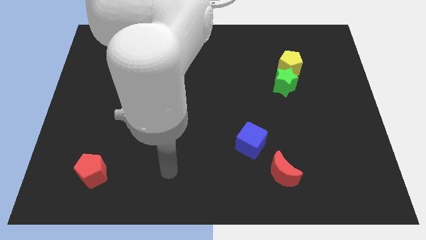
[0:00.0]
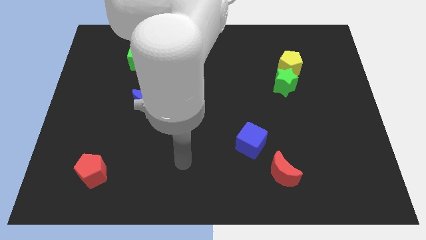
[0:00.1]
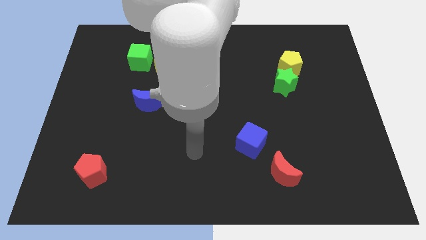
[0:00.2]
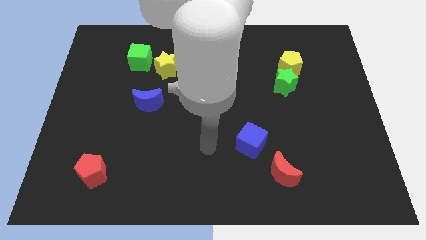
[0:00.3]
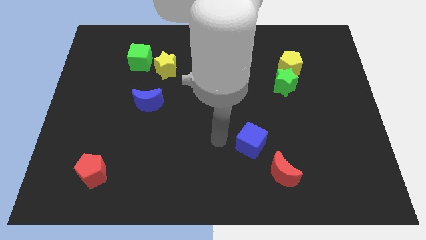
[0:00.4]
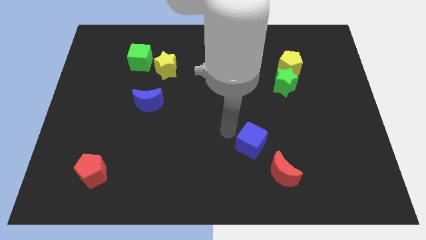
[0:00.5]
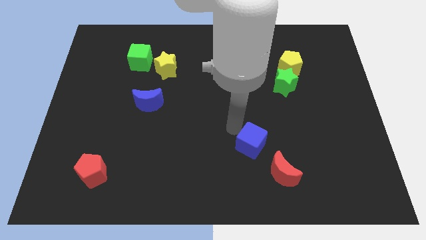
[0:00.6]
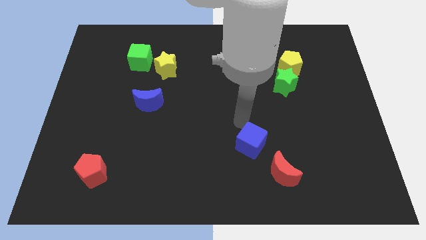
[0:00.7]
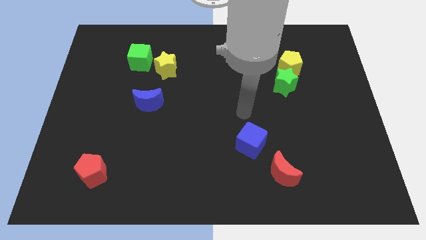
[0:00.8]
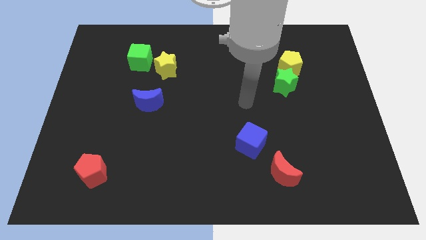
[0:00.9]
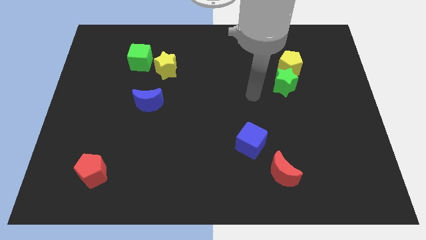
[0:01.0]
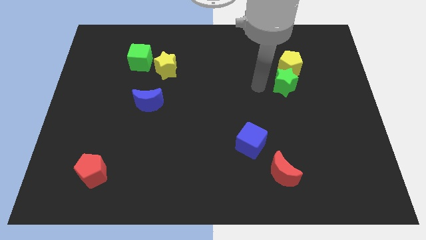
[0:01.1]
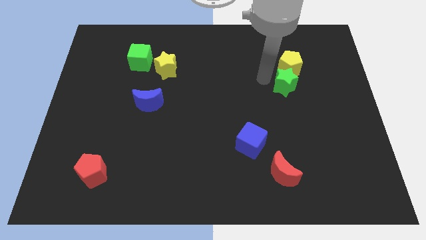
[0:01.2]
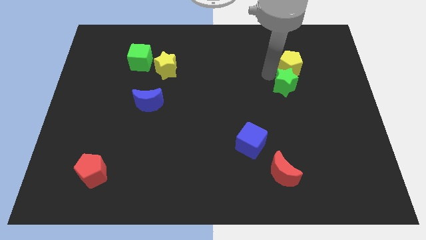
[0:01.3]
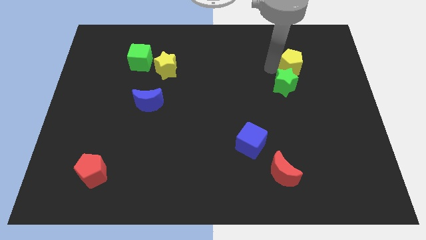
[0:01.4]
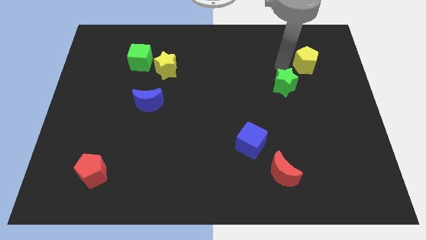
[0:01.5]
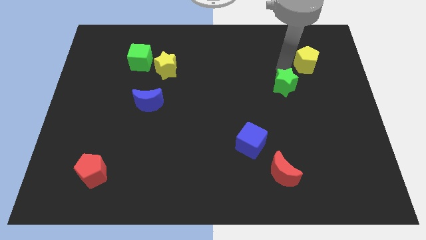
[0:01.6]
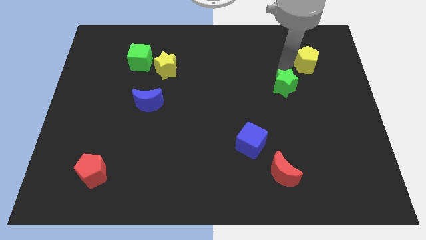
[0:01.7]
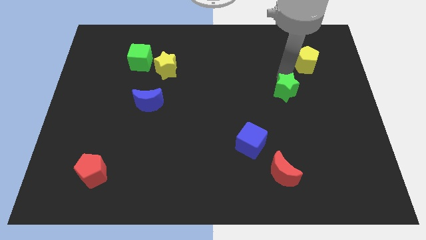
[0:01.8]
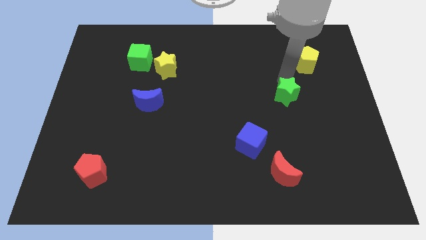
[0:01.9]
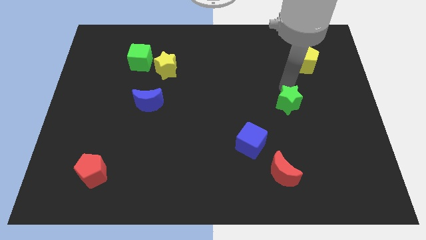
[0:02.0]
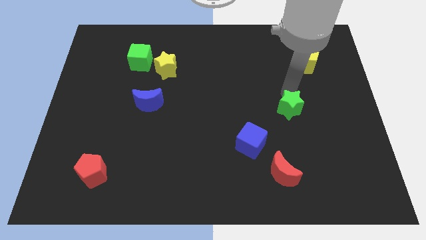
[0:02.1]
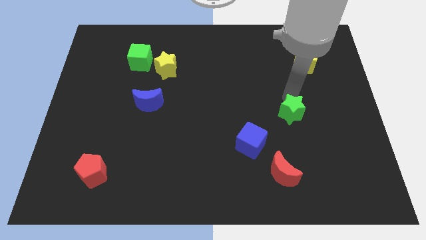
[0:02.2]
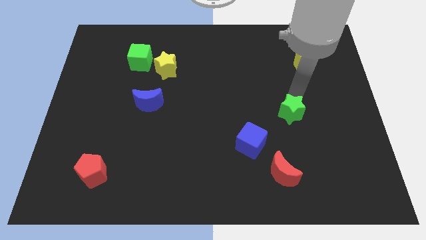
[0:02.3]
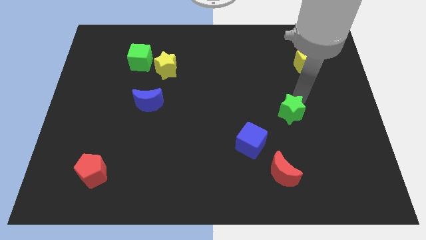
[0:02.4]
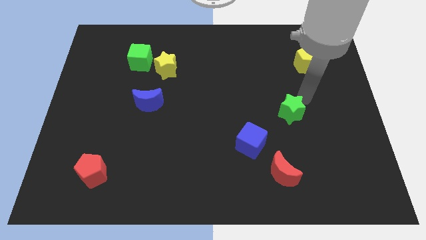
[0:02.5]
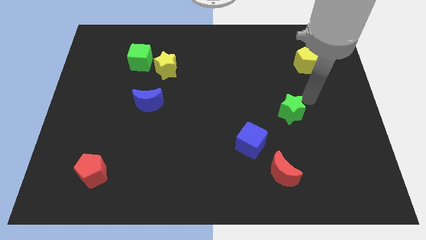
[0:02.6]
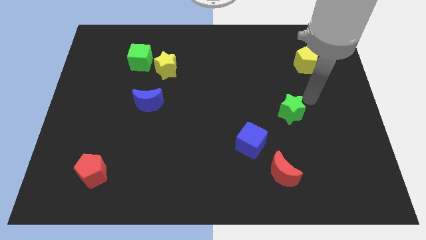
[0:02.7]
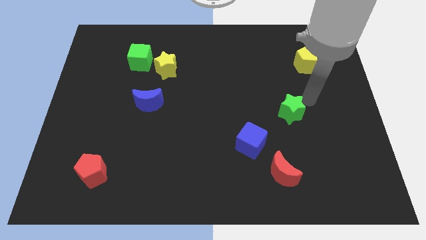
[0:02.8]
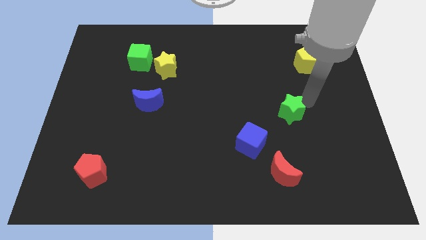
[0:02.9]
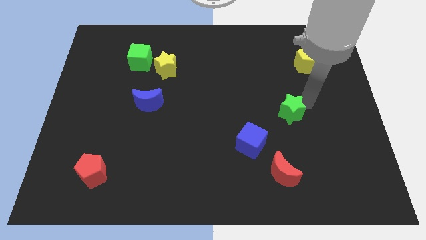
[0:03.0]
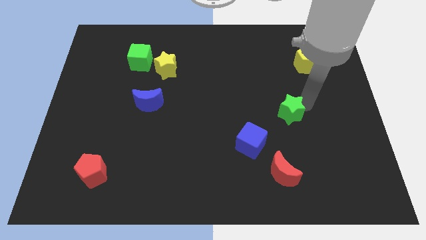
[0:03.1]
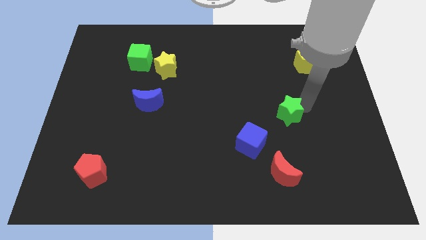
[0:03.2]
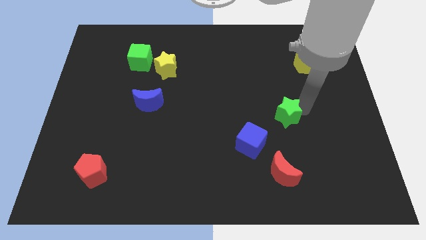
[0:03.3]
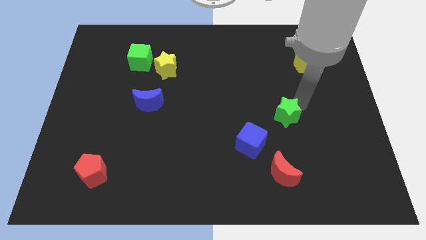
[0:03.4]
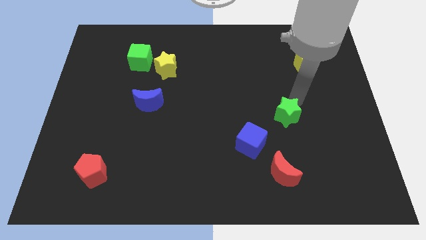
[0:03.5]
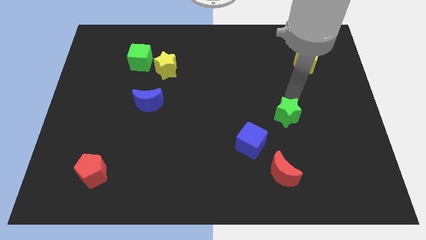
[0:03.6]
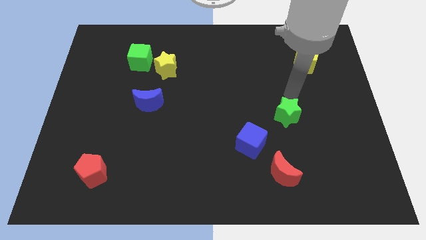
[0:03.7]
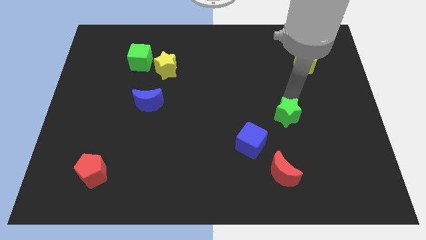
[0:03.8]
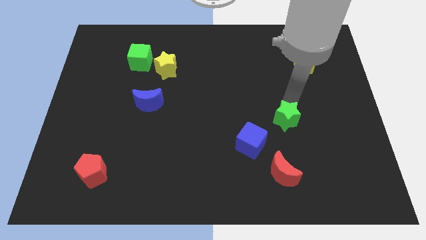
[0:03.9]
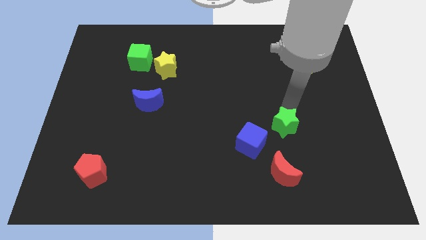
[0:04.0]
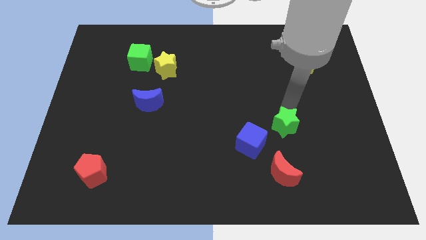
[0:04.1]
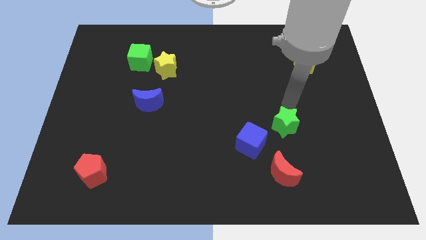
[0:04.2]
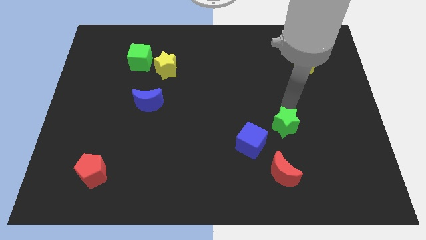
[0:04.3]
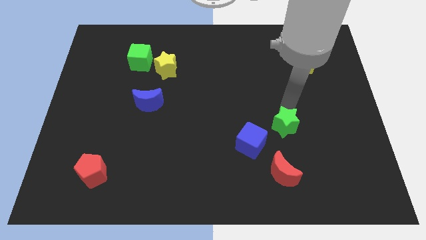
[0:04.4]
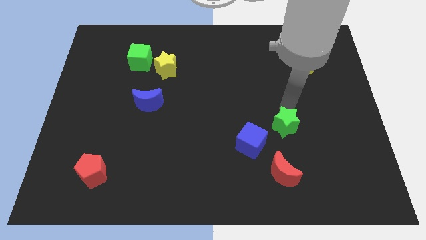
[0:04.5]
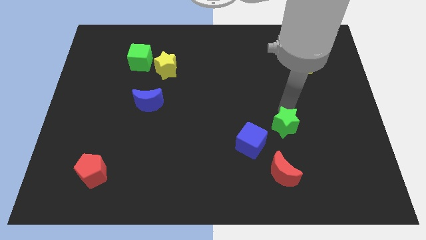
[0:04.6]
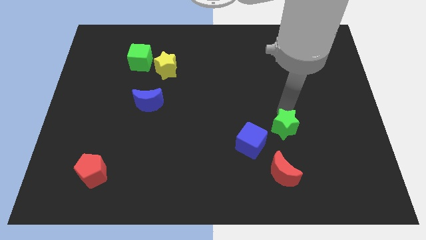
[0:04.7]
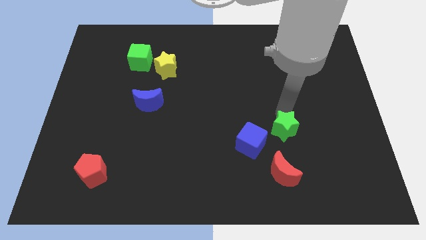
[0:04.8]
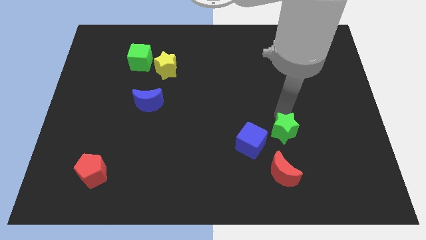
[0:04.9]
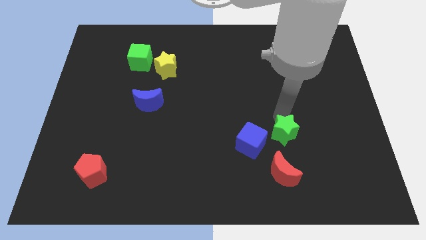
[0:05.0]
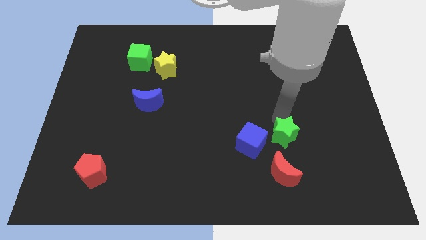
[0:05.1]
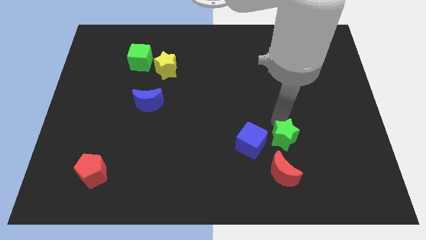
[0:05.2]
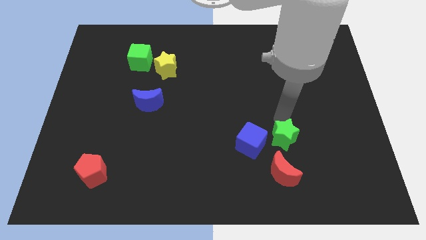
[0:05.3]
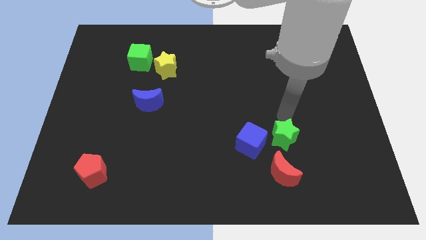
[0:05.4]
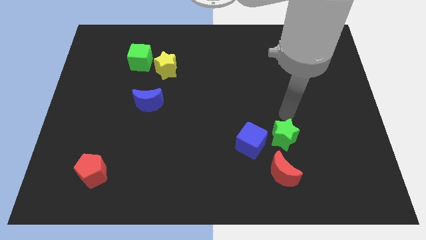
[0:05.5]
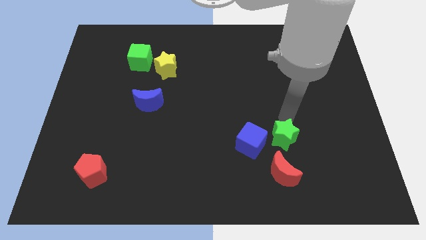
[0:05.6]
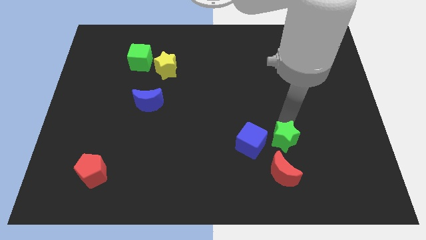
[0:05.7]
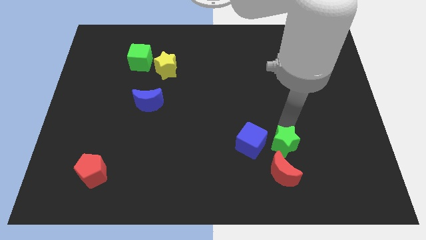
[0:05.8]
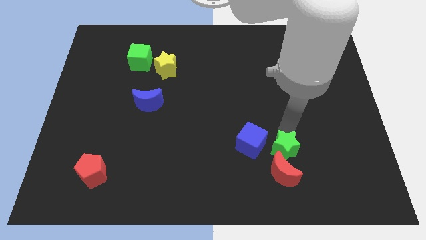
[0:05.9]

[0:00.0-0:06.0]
slide the green star towards the red moon

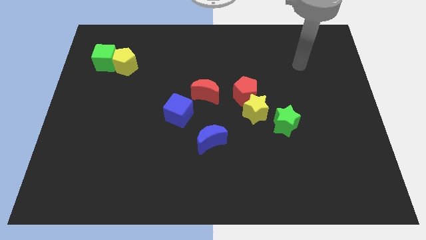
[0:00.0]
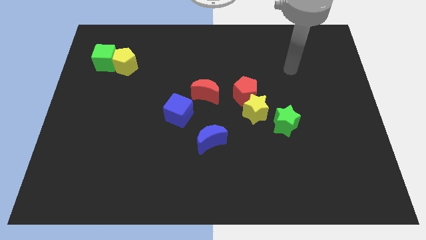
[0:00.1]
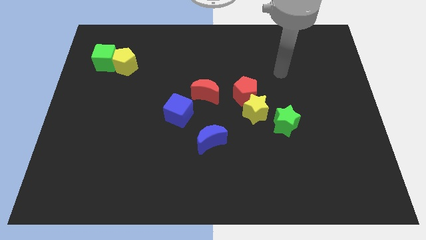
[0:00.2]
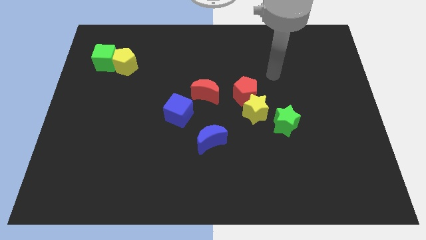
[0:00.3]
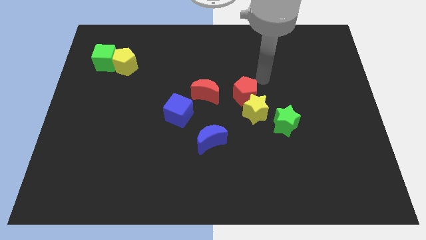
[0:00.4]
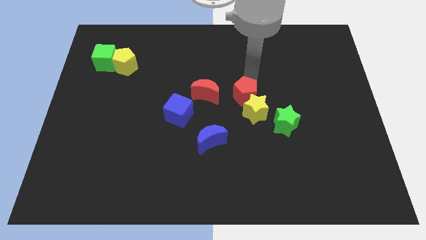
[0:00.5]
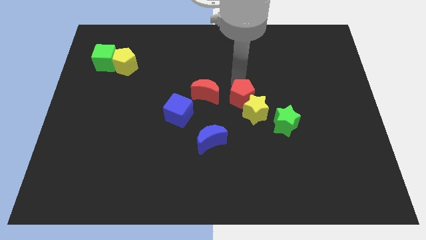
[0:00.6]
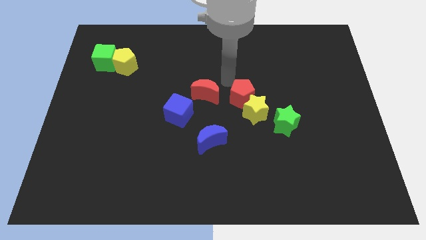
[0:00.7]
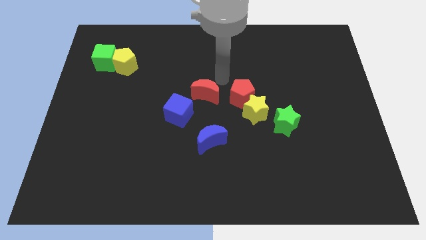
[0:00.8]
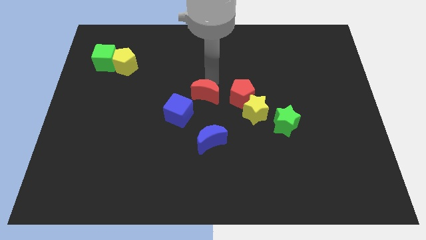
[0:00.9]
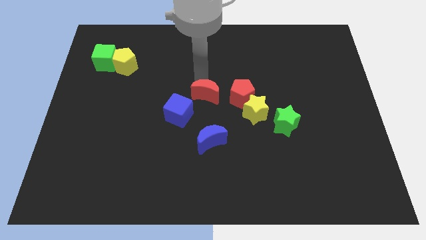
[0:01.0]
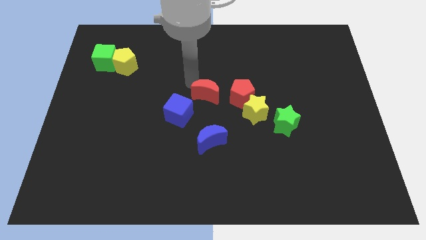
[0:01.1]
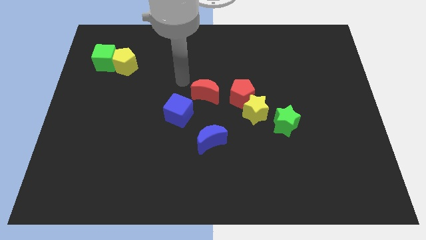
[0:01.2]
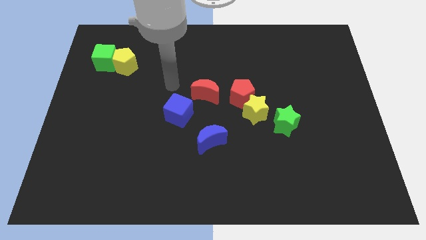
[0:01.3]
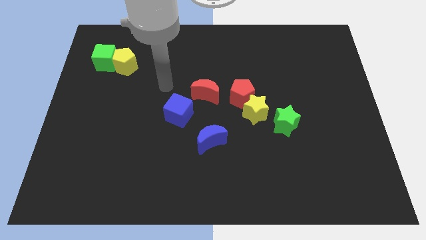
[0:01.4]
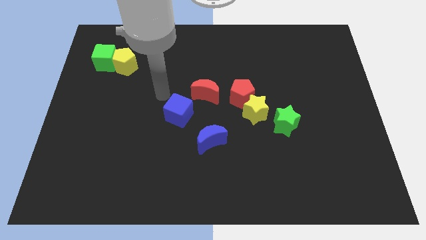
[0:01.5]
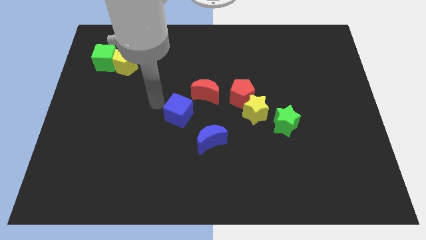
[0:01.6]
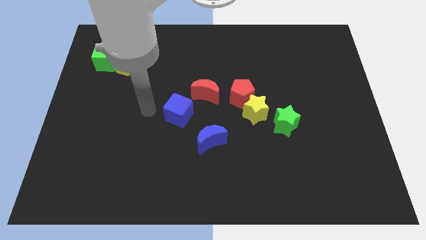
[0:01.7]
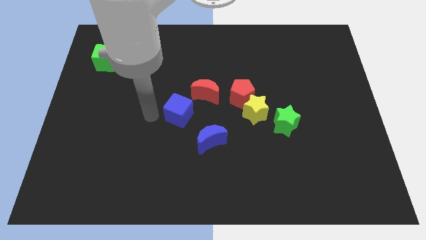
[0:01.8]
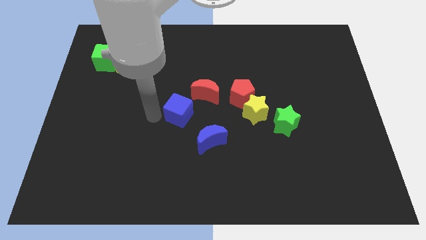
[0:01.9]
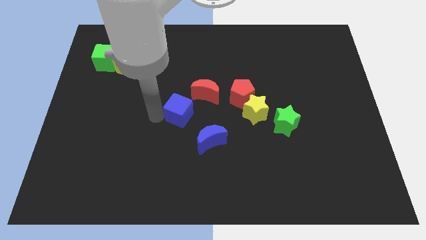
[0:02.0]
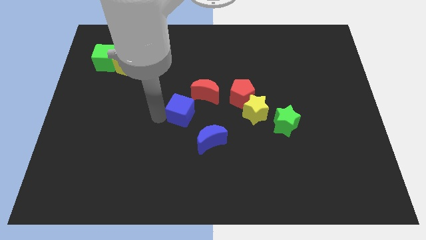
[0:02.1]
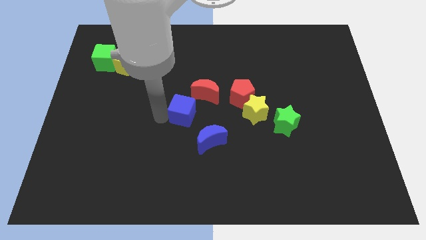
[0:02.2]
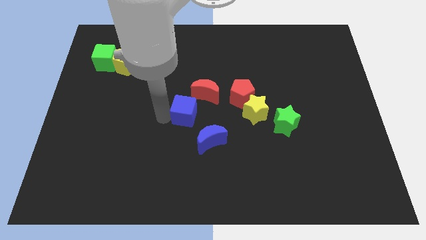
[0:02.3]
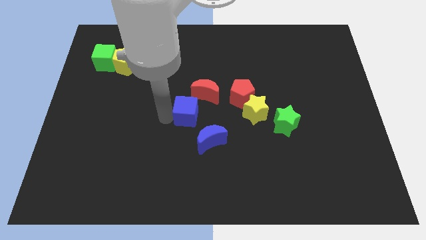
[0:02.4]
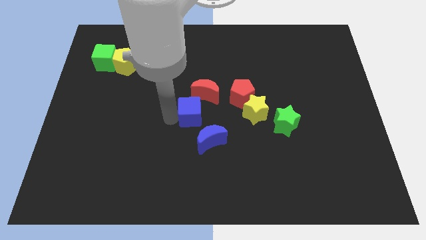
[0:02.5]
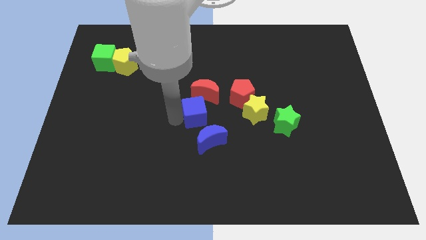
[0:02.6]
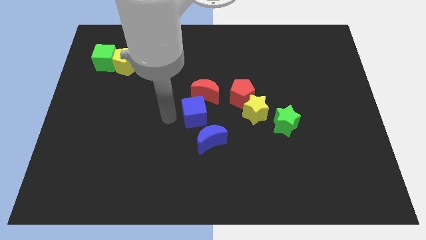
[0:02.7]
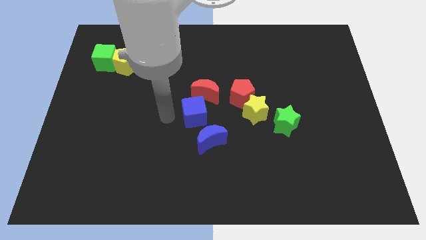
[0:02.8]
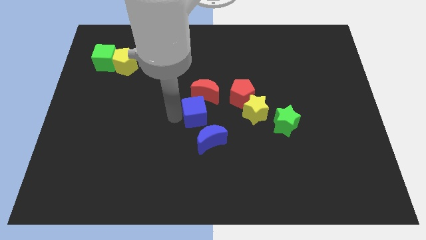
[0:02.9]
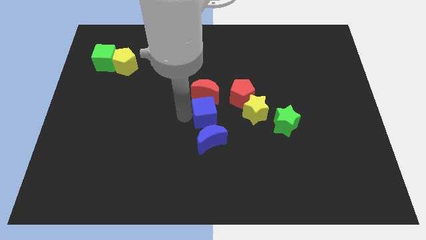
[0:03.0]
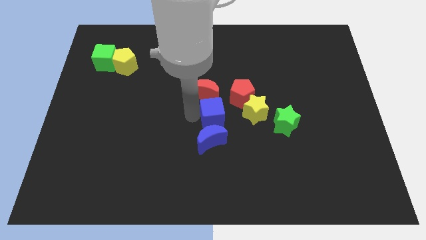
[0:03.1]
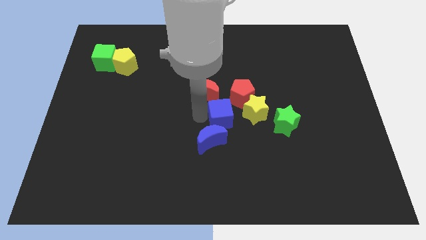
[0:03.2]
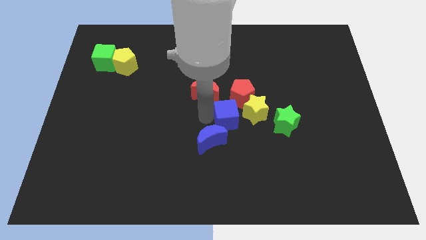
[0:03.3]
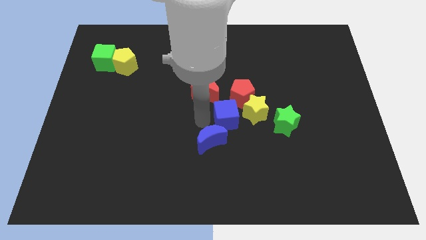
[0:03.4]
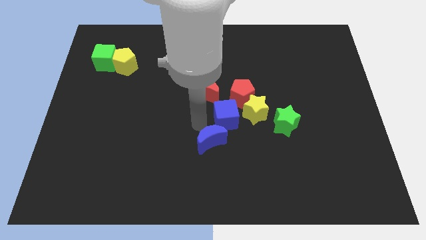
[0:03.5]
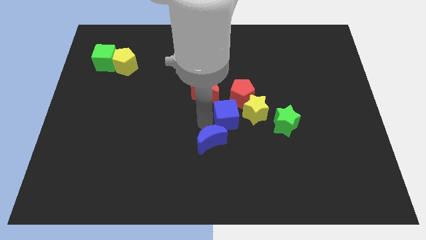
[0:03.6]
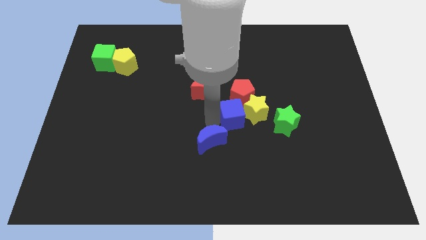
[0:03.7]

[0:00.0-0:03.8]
move the blue cube to the yellow star
